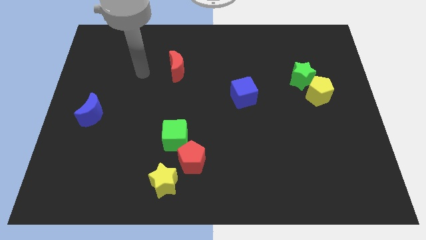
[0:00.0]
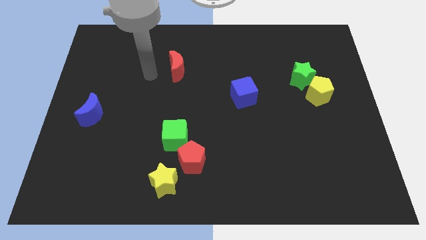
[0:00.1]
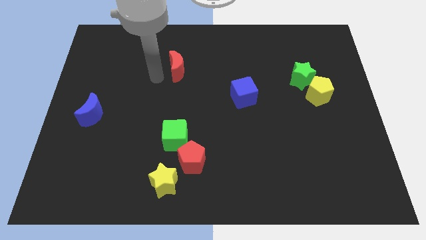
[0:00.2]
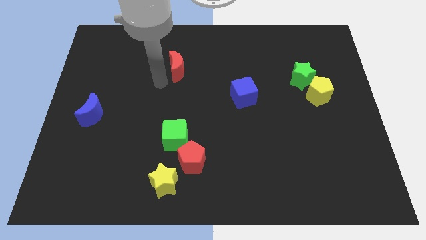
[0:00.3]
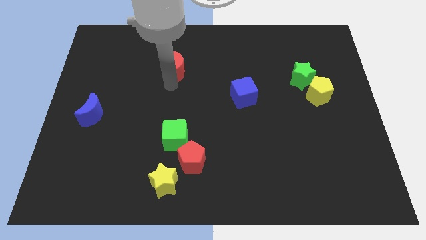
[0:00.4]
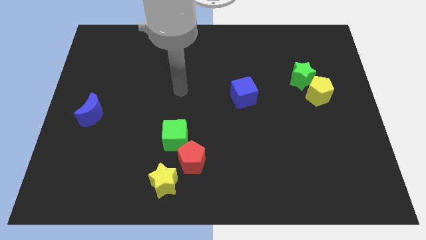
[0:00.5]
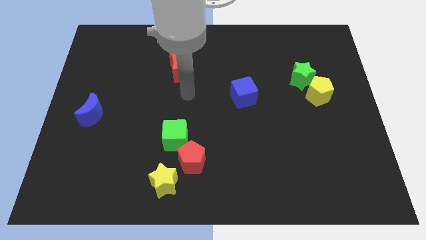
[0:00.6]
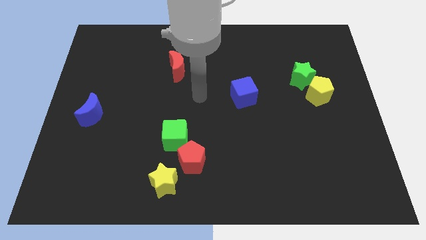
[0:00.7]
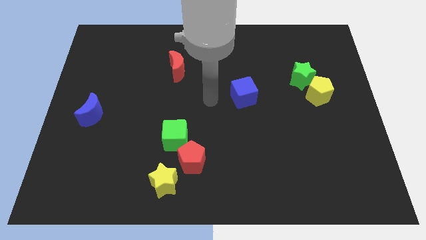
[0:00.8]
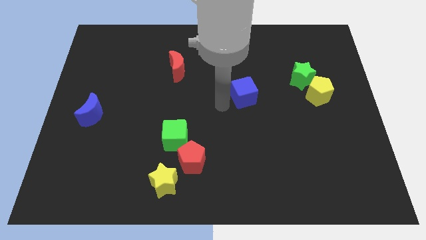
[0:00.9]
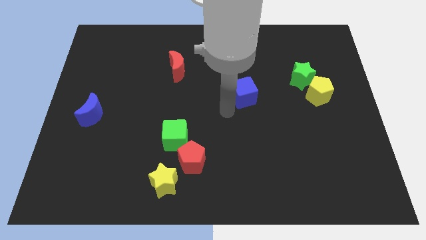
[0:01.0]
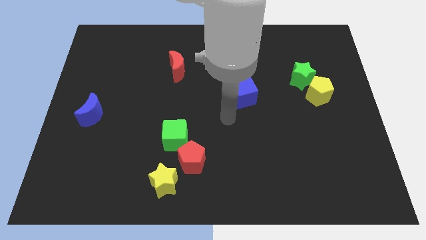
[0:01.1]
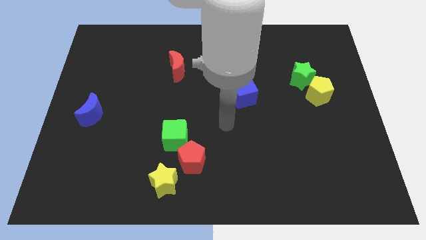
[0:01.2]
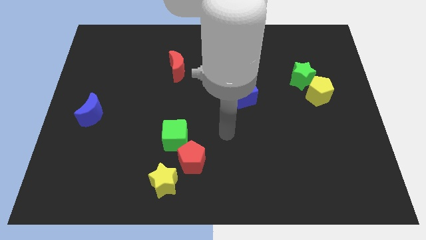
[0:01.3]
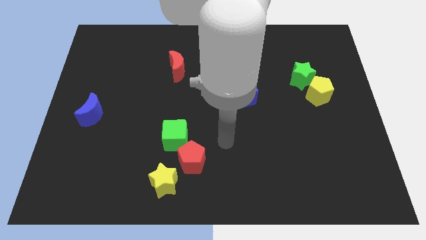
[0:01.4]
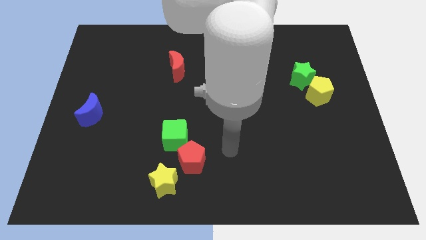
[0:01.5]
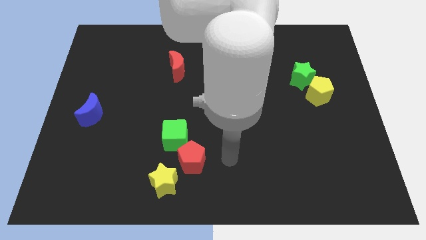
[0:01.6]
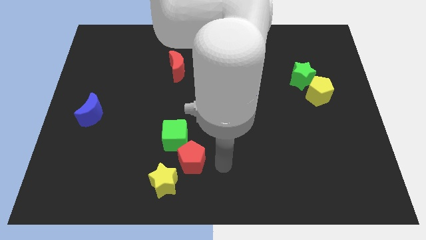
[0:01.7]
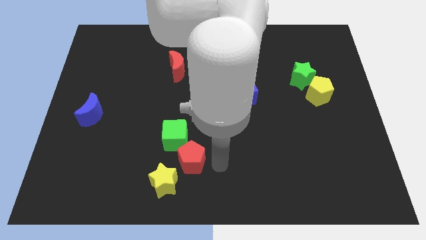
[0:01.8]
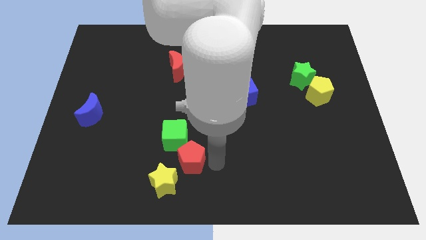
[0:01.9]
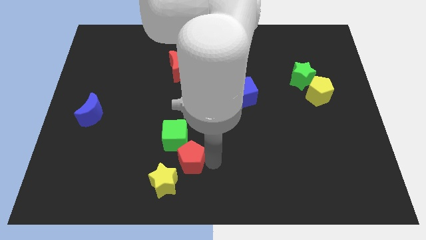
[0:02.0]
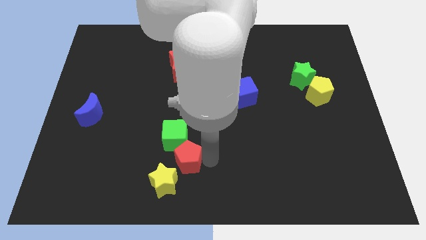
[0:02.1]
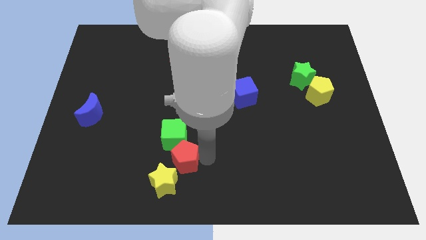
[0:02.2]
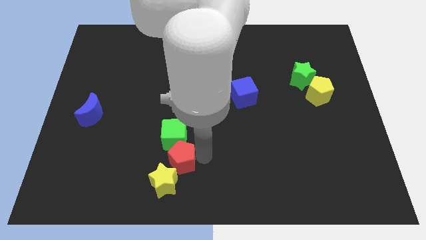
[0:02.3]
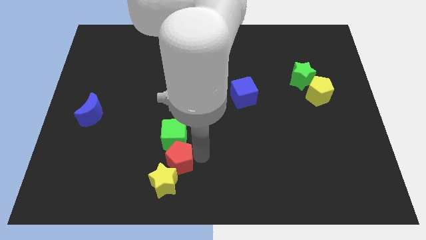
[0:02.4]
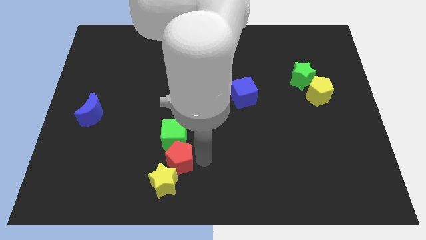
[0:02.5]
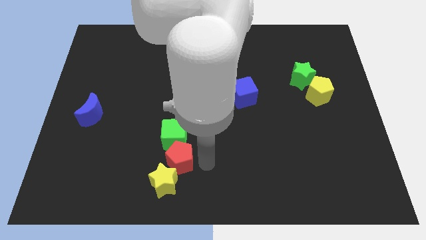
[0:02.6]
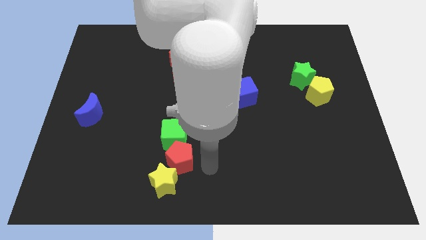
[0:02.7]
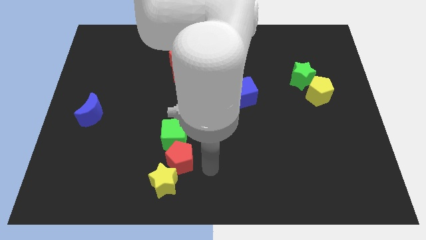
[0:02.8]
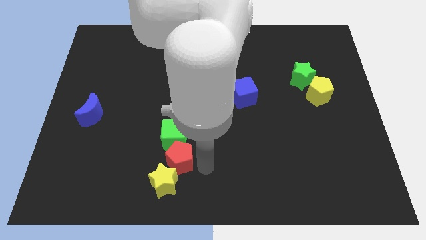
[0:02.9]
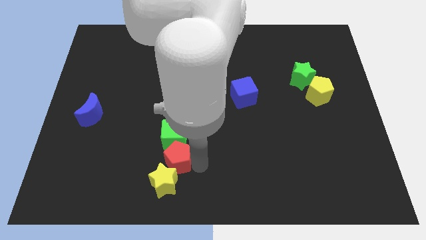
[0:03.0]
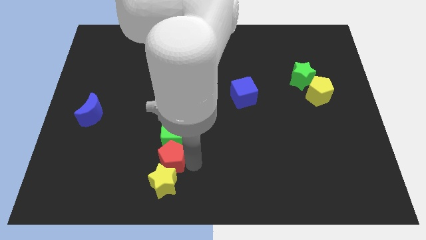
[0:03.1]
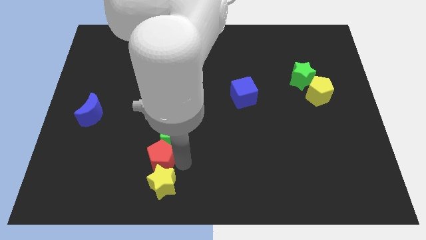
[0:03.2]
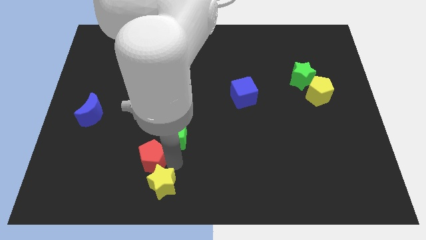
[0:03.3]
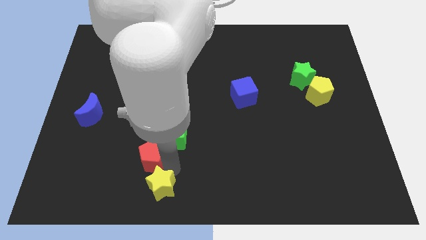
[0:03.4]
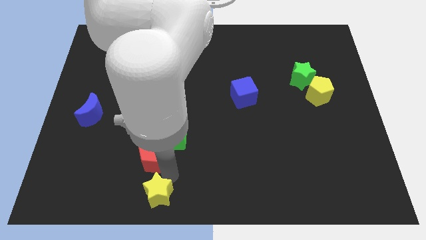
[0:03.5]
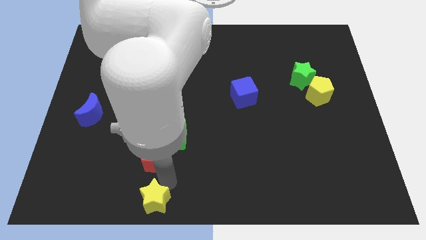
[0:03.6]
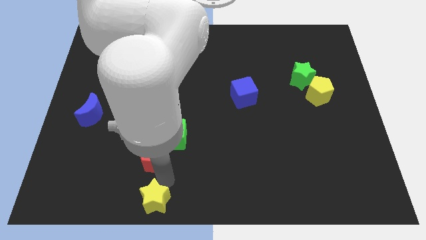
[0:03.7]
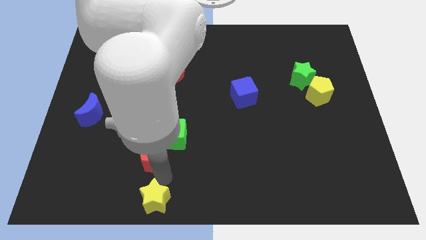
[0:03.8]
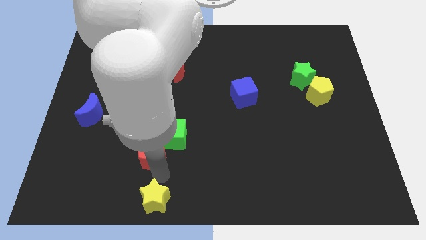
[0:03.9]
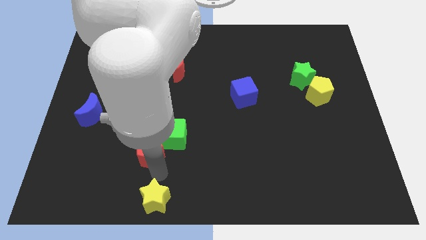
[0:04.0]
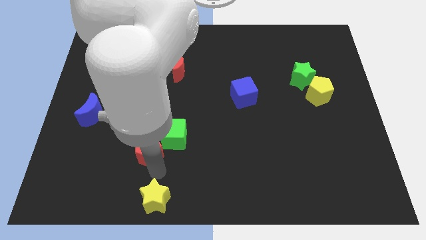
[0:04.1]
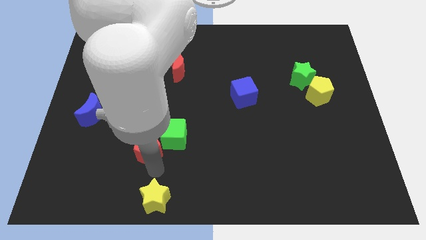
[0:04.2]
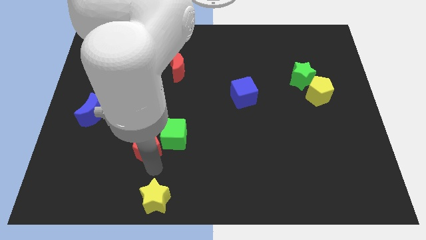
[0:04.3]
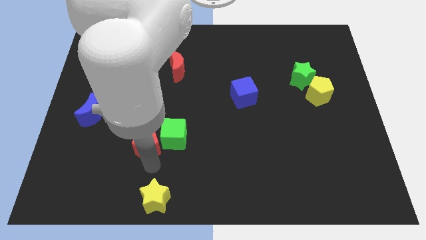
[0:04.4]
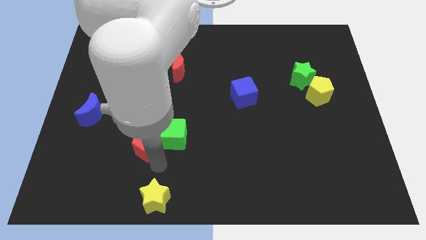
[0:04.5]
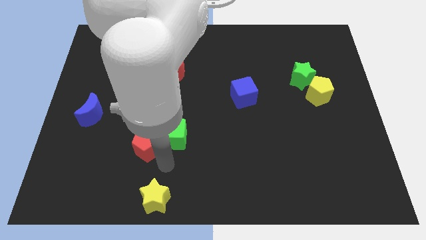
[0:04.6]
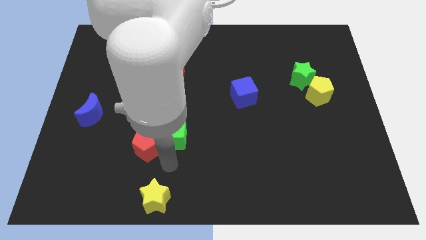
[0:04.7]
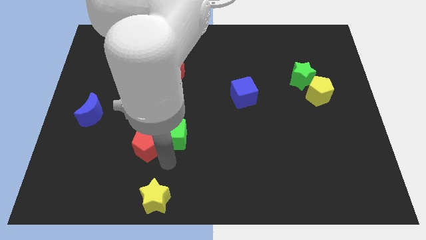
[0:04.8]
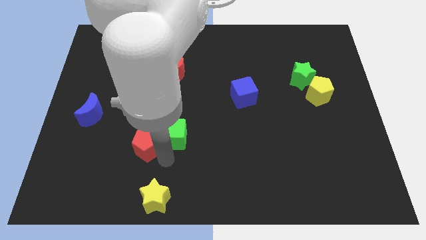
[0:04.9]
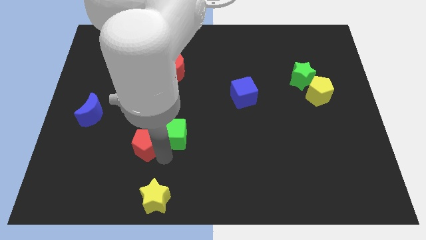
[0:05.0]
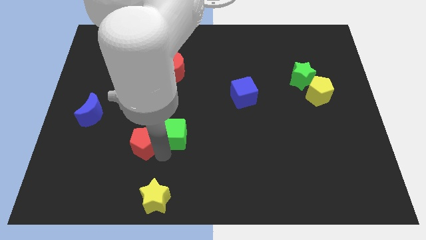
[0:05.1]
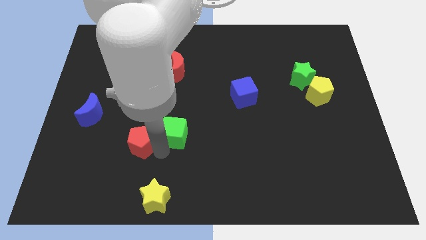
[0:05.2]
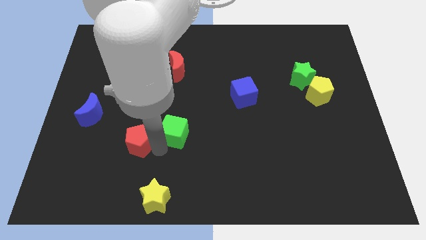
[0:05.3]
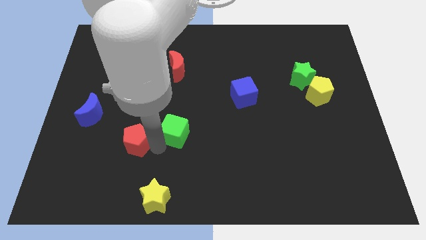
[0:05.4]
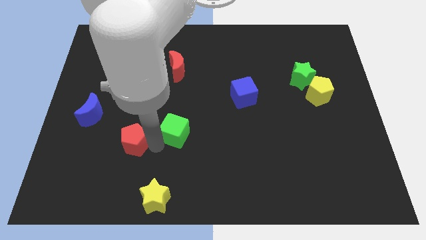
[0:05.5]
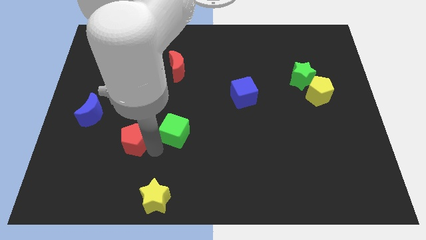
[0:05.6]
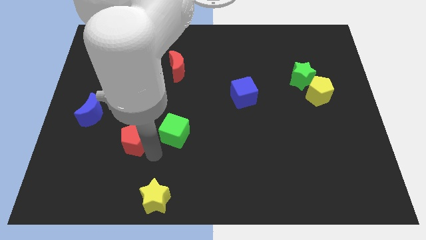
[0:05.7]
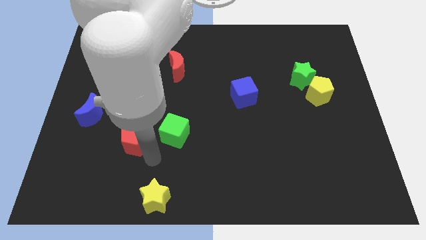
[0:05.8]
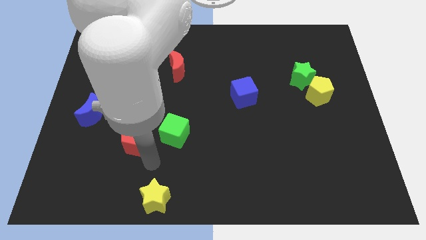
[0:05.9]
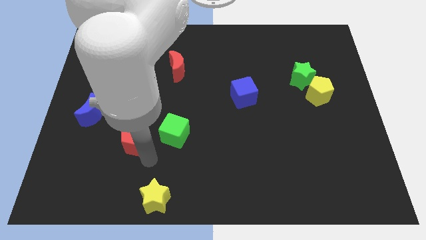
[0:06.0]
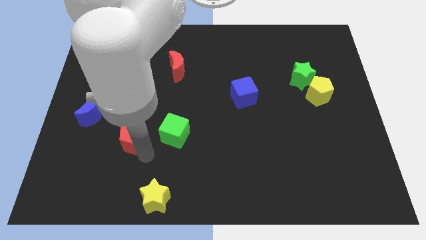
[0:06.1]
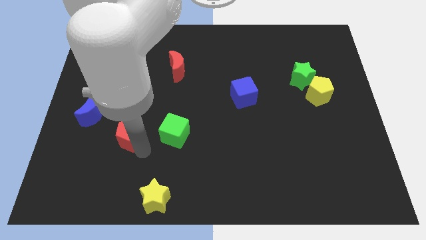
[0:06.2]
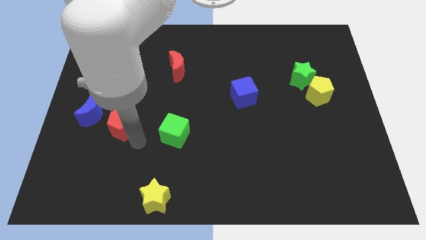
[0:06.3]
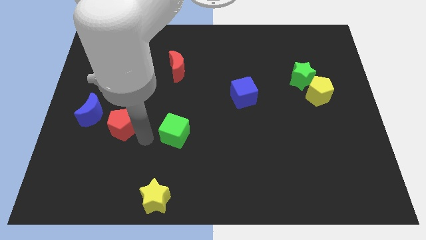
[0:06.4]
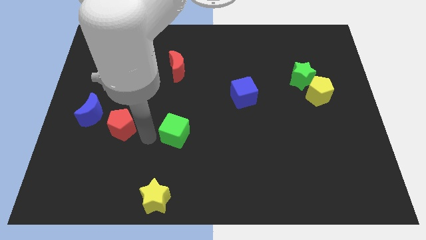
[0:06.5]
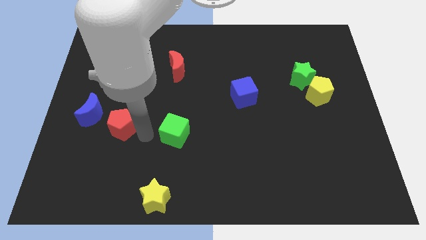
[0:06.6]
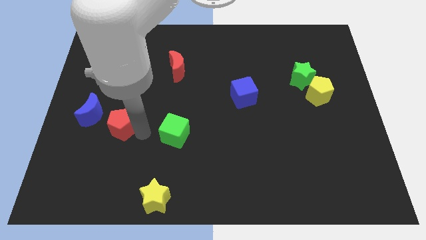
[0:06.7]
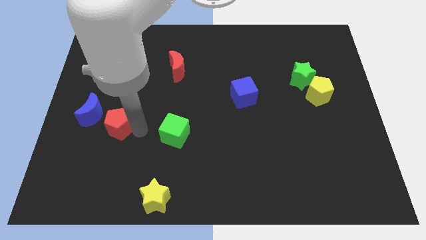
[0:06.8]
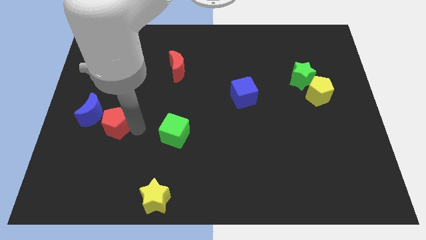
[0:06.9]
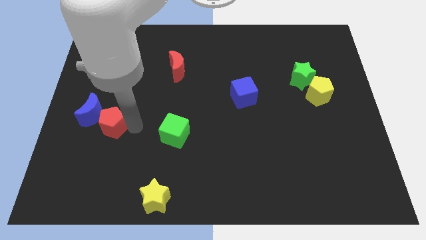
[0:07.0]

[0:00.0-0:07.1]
put the red pentagon to the blue moon
